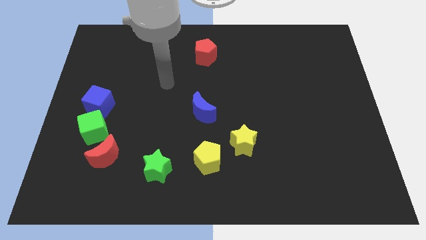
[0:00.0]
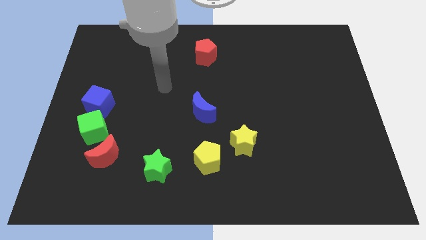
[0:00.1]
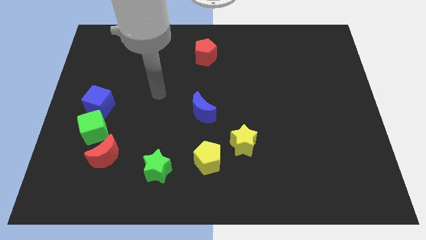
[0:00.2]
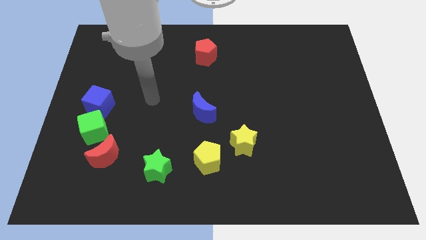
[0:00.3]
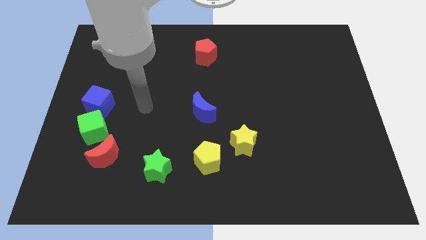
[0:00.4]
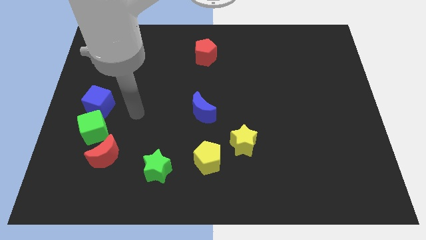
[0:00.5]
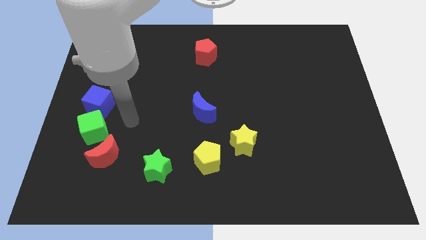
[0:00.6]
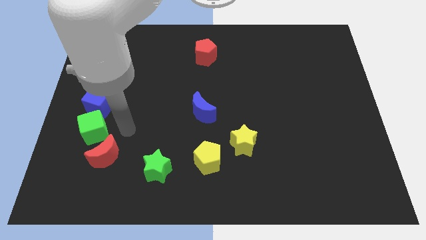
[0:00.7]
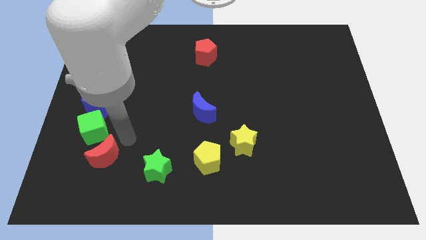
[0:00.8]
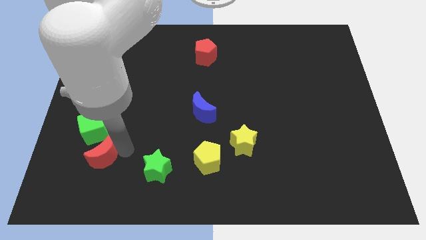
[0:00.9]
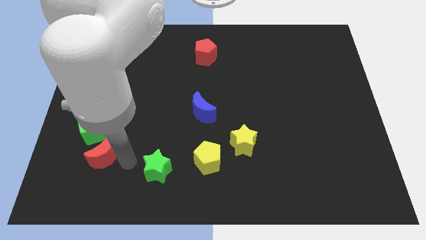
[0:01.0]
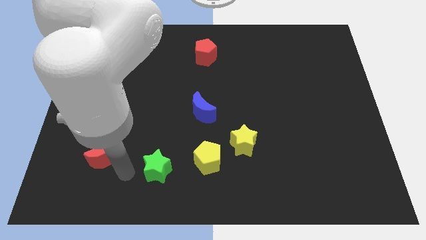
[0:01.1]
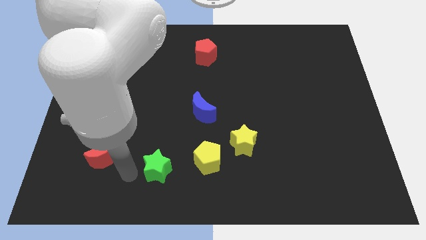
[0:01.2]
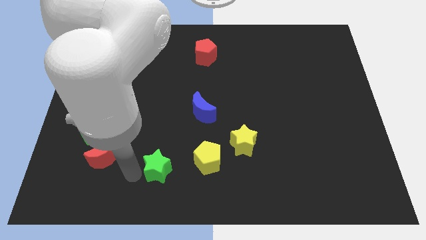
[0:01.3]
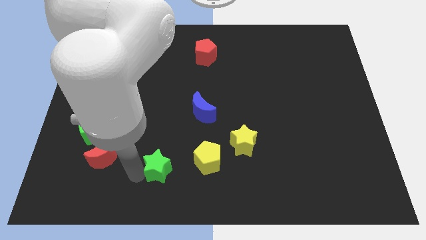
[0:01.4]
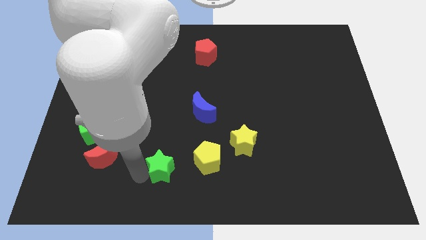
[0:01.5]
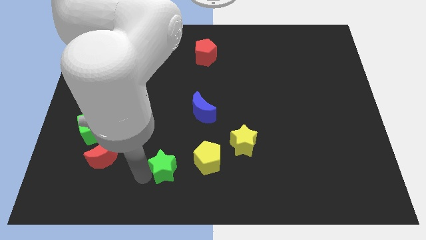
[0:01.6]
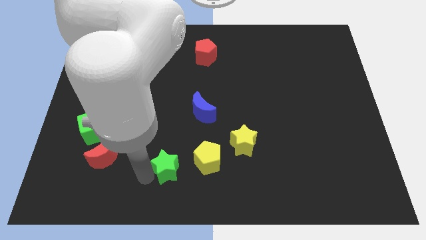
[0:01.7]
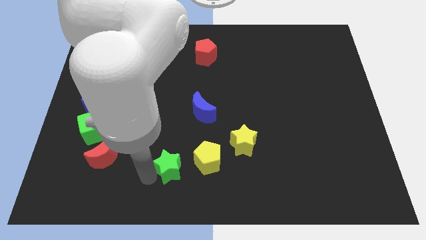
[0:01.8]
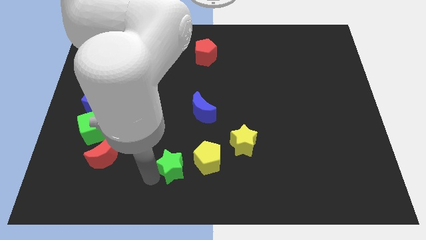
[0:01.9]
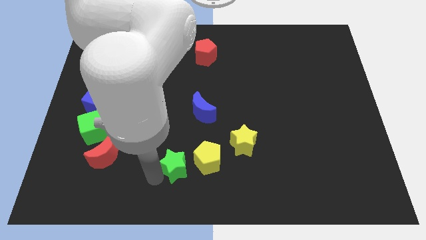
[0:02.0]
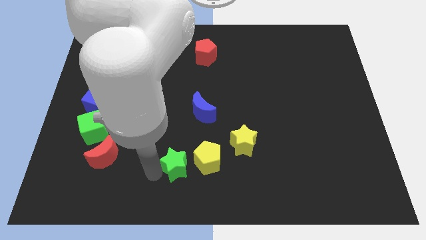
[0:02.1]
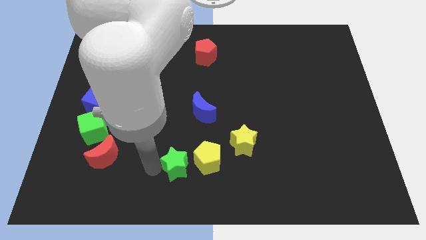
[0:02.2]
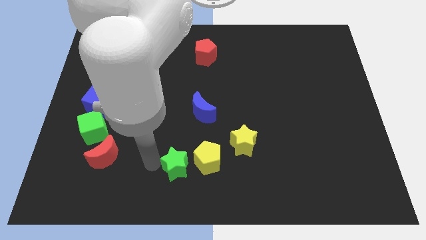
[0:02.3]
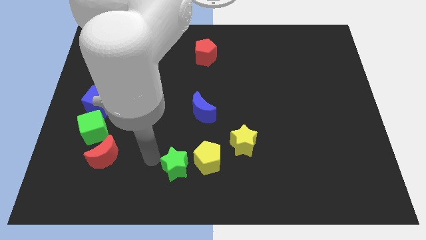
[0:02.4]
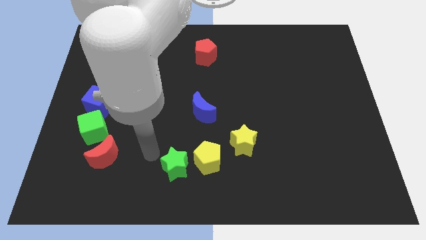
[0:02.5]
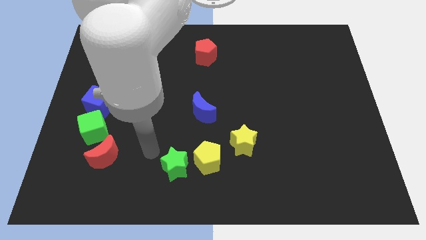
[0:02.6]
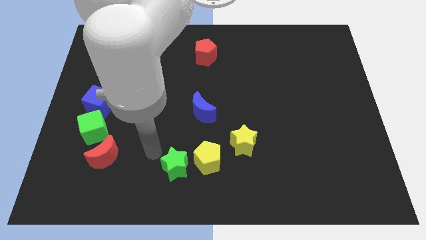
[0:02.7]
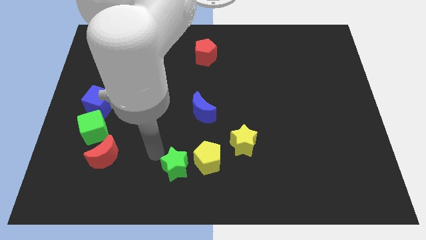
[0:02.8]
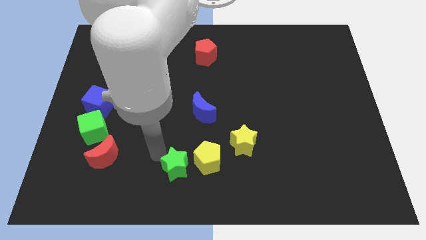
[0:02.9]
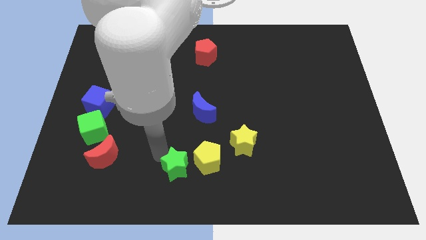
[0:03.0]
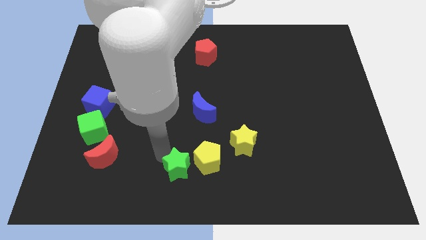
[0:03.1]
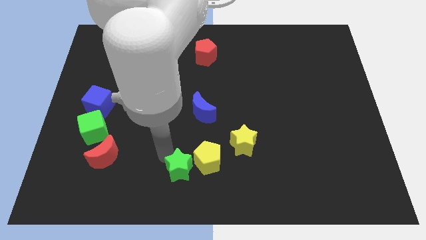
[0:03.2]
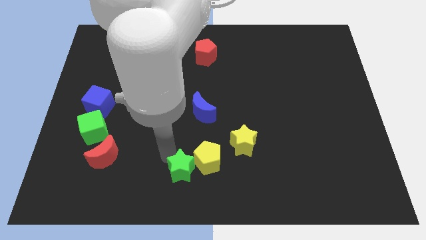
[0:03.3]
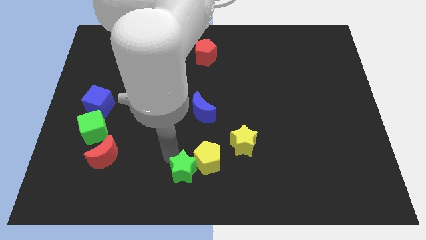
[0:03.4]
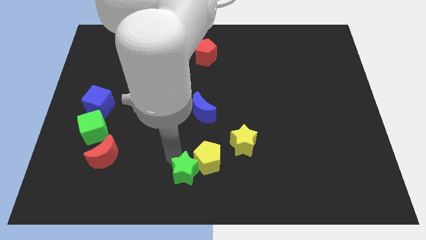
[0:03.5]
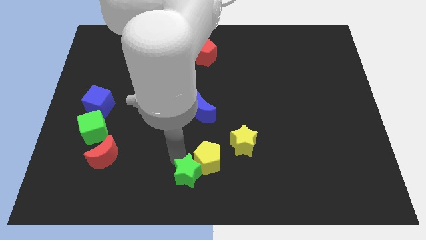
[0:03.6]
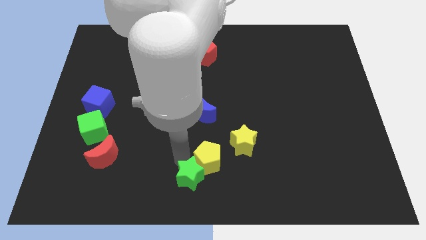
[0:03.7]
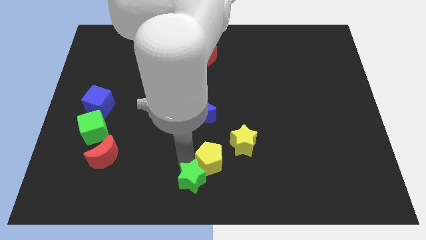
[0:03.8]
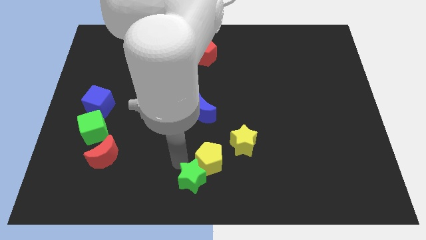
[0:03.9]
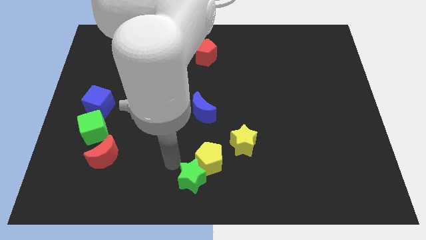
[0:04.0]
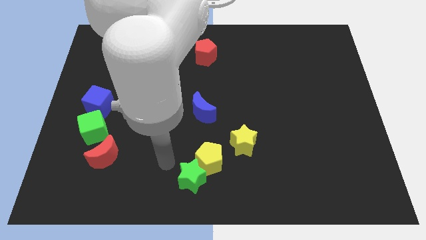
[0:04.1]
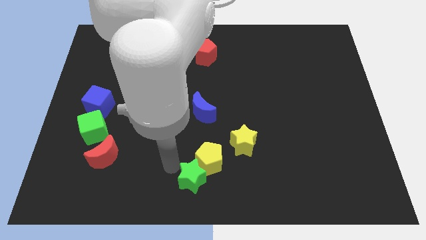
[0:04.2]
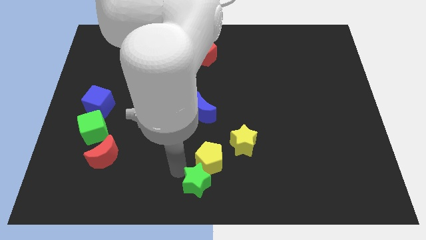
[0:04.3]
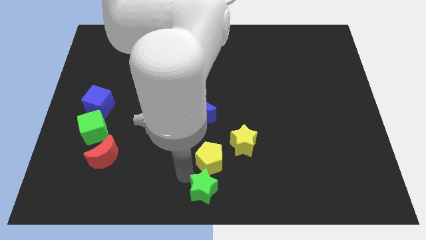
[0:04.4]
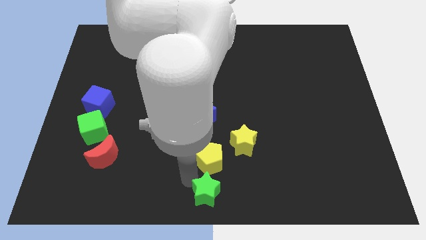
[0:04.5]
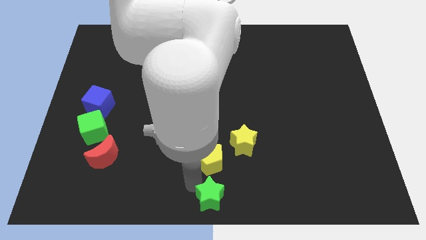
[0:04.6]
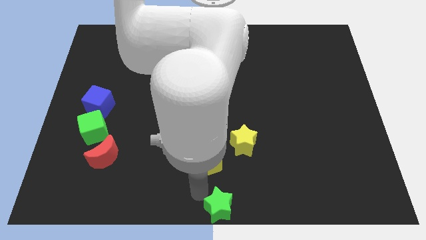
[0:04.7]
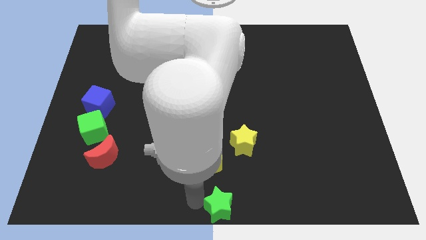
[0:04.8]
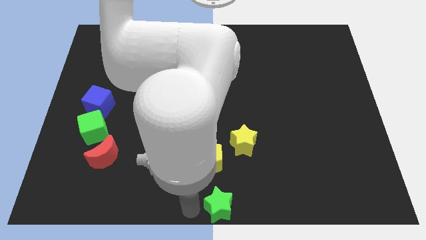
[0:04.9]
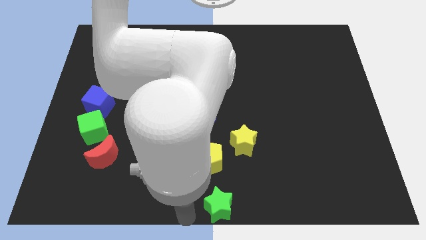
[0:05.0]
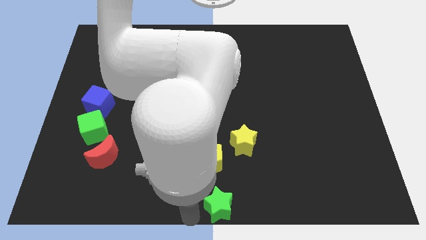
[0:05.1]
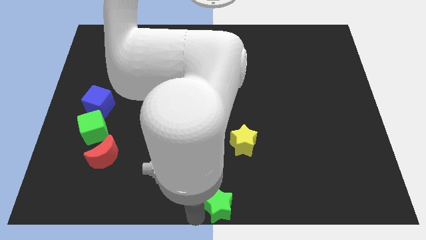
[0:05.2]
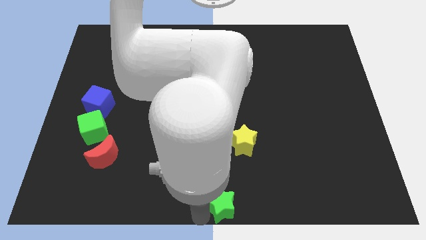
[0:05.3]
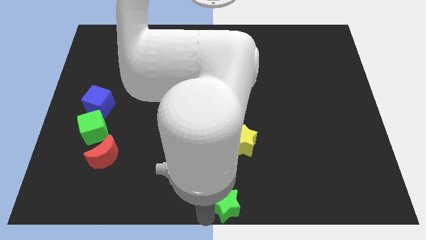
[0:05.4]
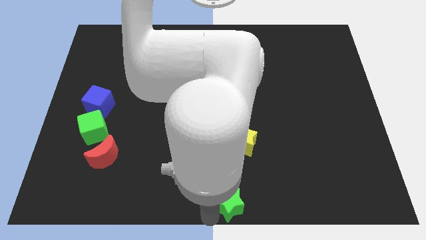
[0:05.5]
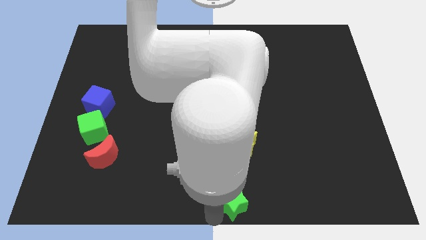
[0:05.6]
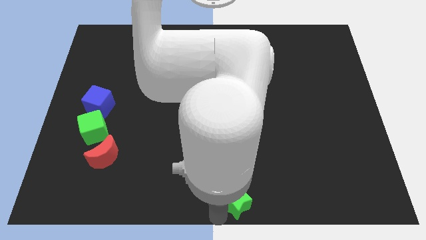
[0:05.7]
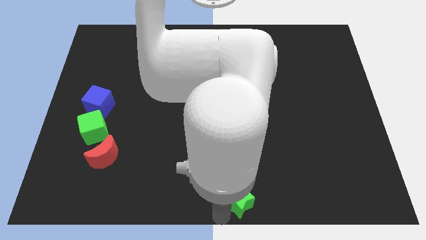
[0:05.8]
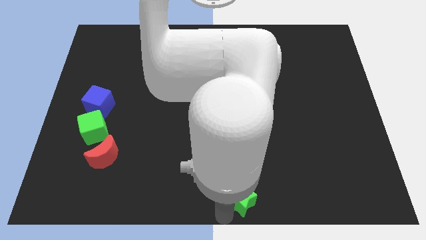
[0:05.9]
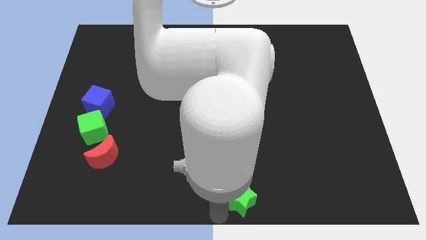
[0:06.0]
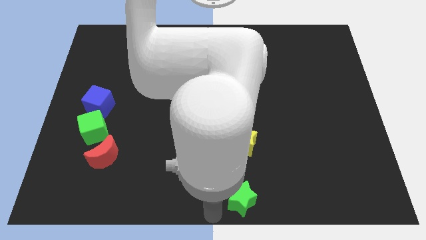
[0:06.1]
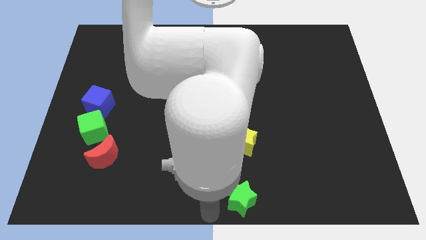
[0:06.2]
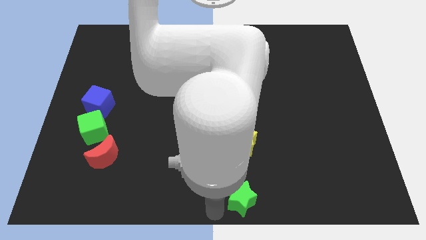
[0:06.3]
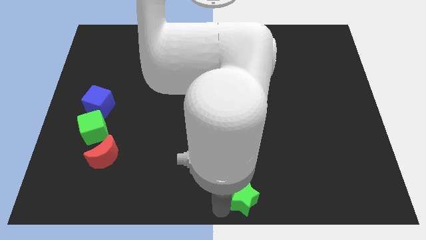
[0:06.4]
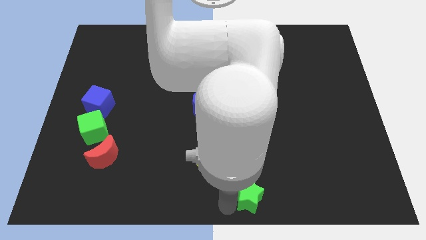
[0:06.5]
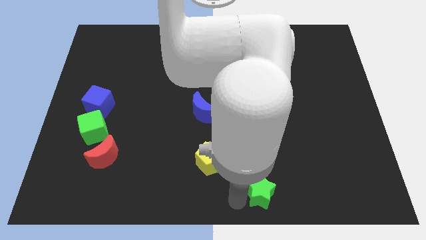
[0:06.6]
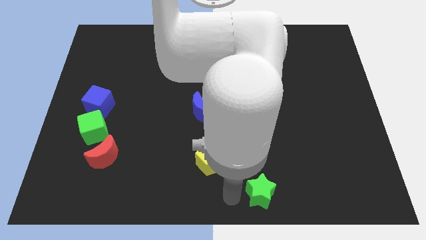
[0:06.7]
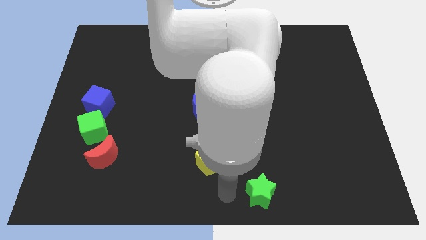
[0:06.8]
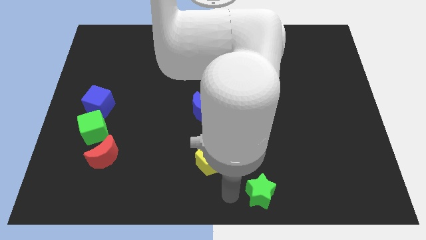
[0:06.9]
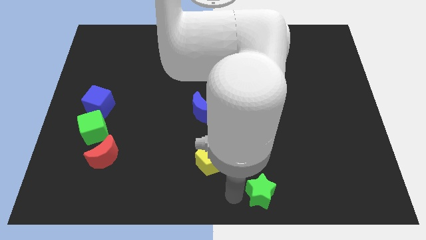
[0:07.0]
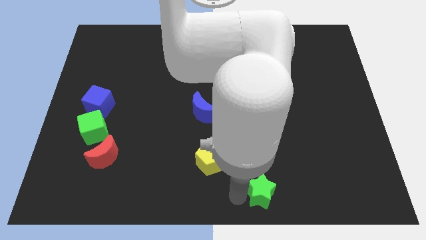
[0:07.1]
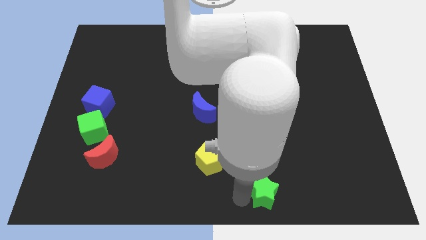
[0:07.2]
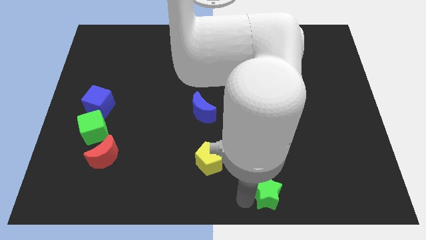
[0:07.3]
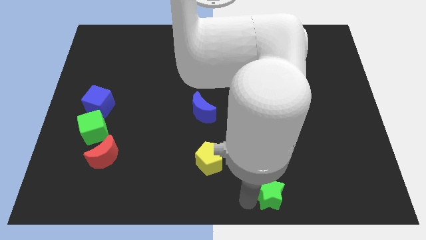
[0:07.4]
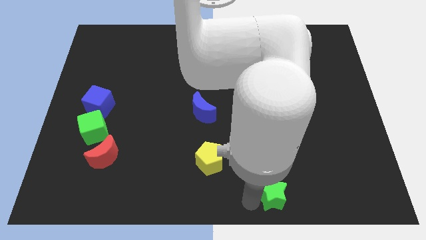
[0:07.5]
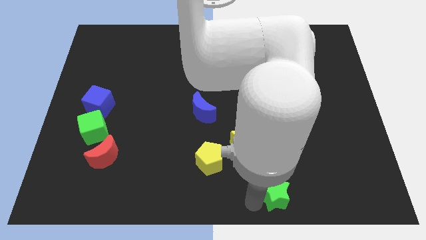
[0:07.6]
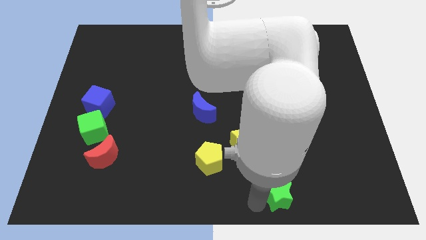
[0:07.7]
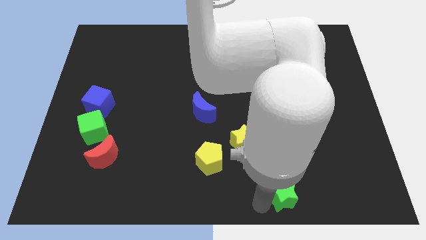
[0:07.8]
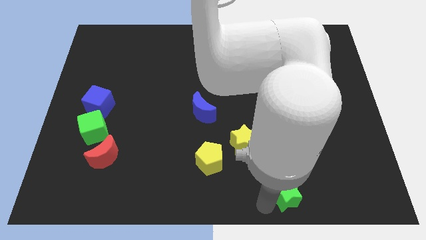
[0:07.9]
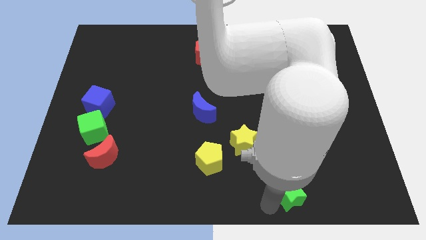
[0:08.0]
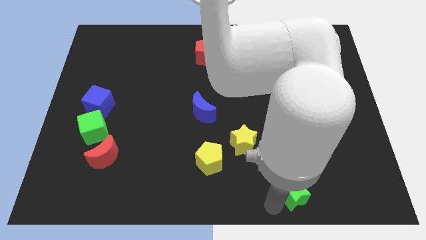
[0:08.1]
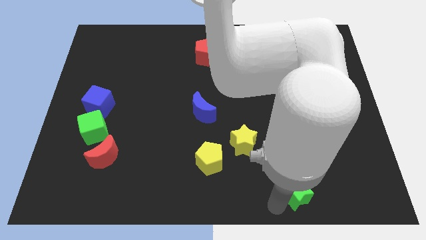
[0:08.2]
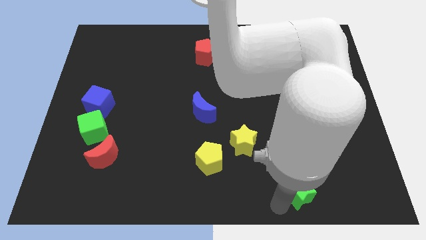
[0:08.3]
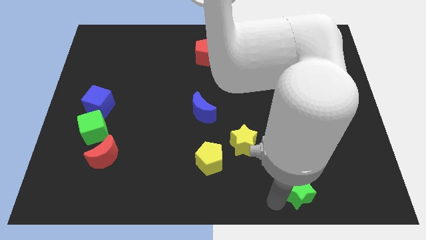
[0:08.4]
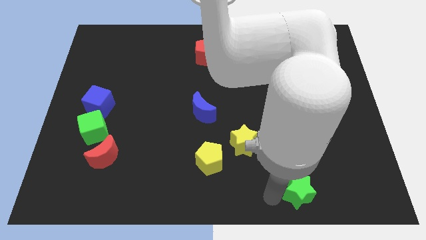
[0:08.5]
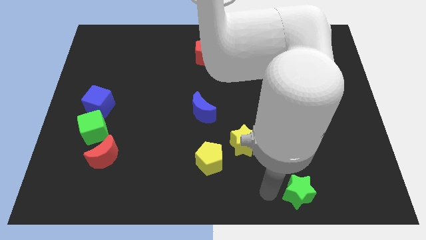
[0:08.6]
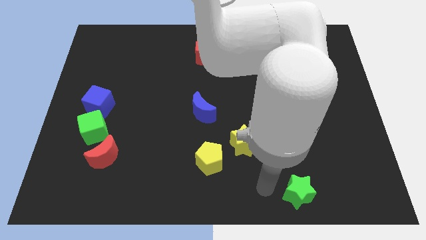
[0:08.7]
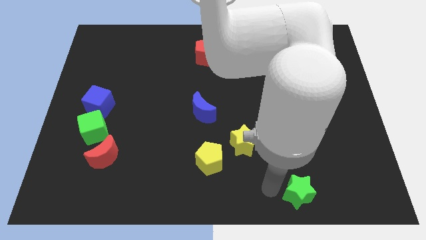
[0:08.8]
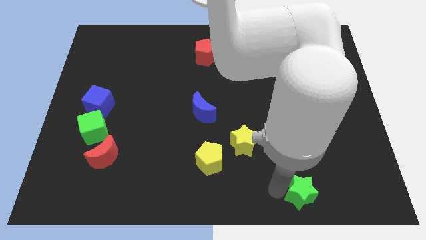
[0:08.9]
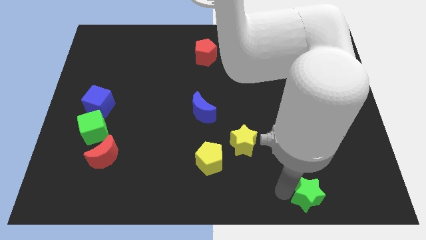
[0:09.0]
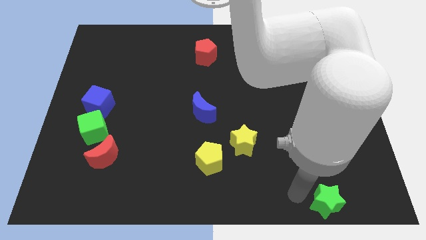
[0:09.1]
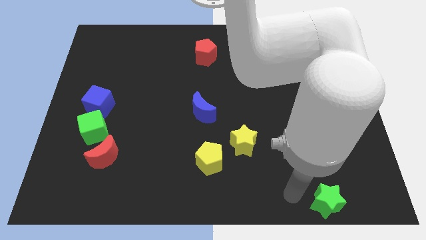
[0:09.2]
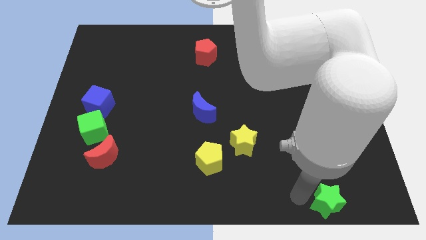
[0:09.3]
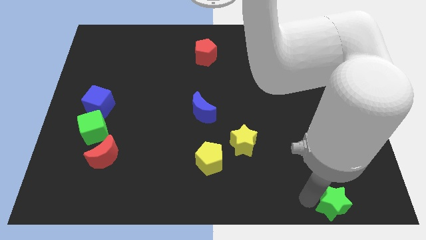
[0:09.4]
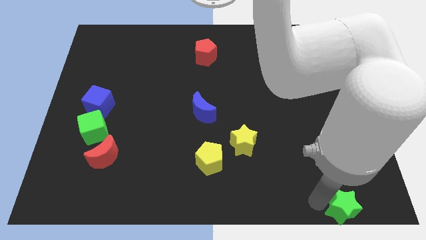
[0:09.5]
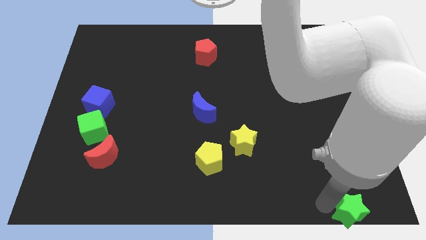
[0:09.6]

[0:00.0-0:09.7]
move the green star to the bottom right
